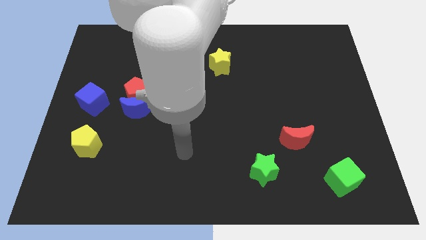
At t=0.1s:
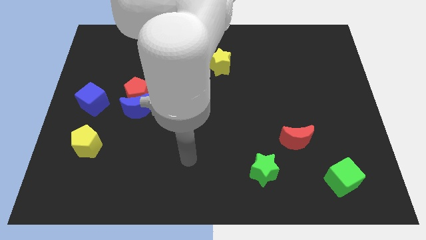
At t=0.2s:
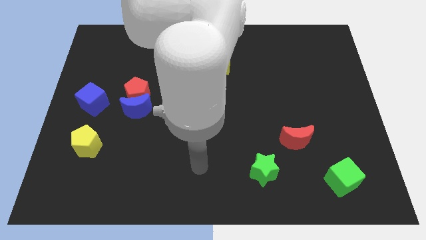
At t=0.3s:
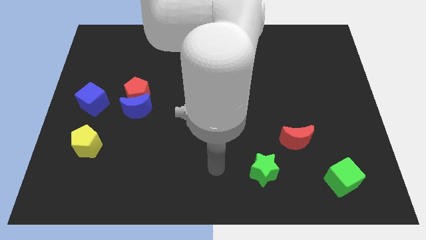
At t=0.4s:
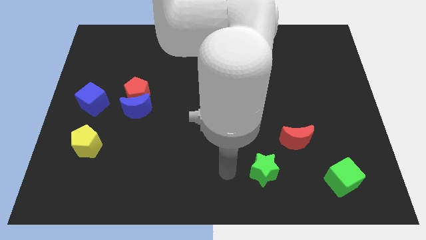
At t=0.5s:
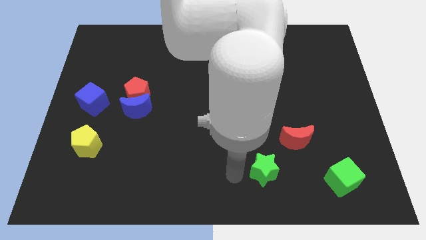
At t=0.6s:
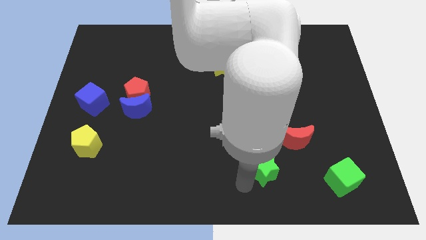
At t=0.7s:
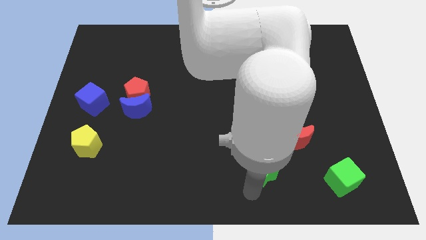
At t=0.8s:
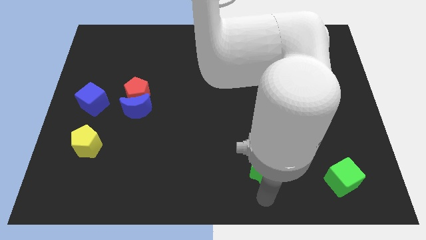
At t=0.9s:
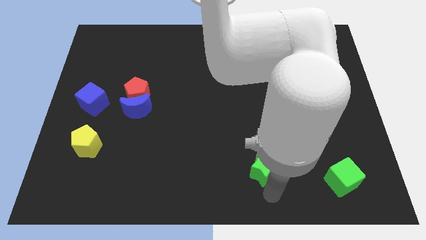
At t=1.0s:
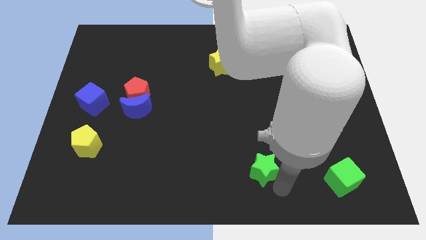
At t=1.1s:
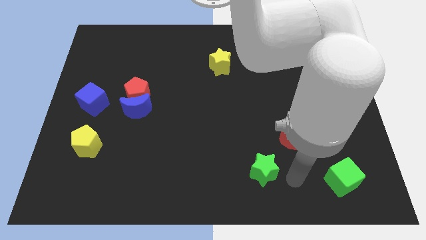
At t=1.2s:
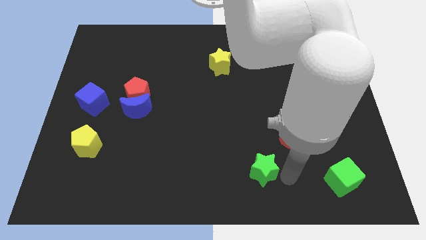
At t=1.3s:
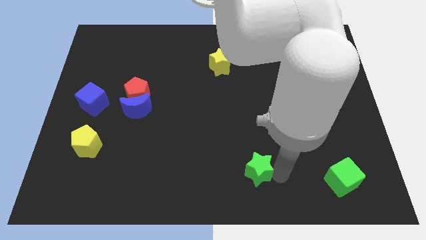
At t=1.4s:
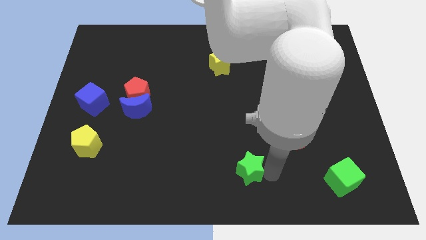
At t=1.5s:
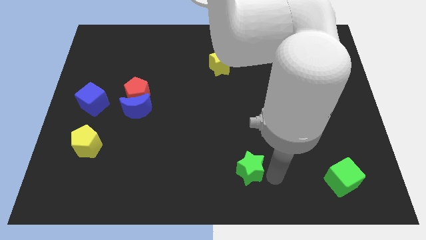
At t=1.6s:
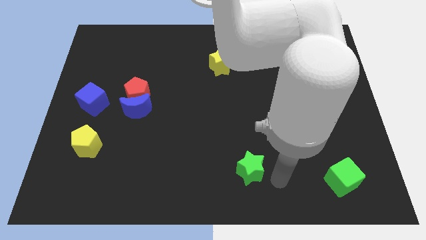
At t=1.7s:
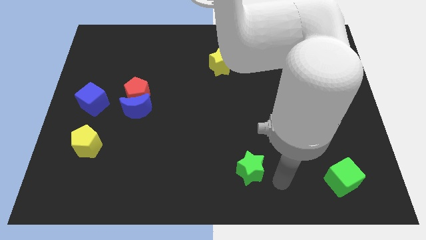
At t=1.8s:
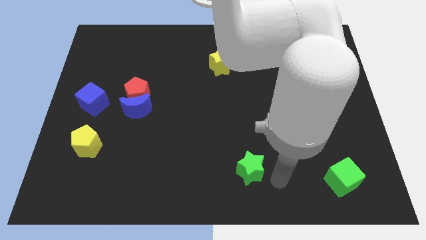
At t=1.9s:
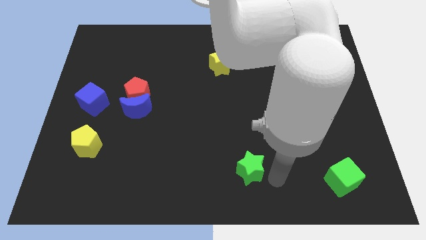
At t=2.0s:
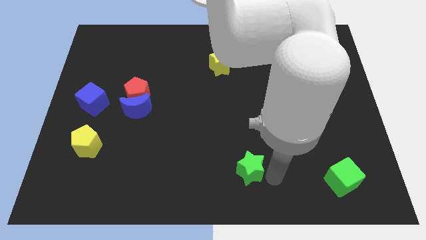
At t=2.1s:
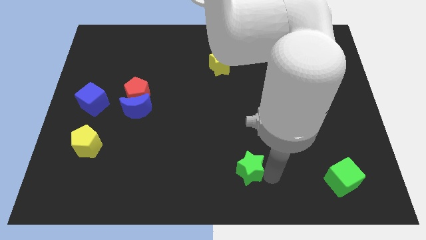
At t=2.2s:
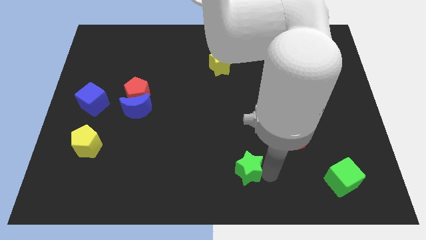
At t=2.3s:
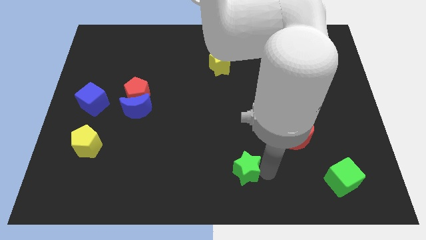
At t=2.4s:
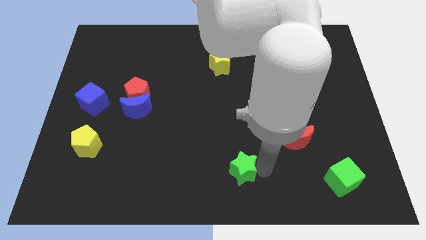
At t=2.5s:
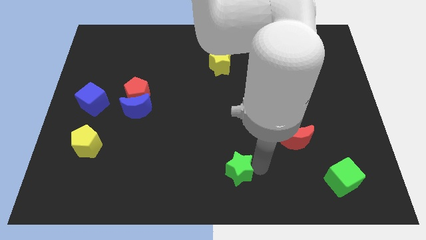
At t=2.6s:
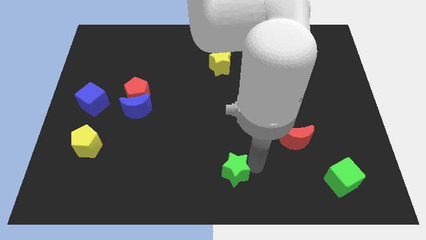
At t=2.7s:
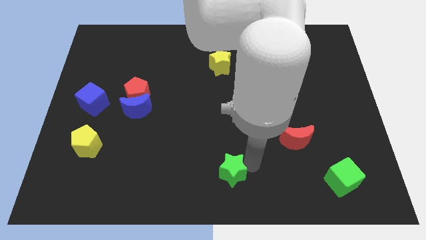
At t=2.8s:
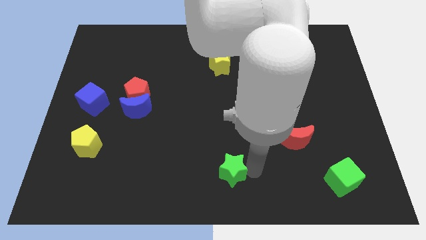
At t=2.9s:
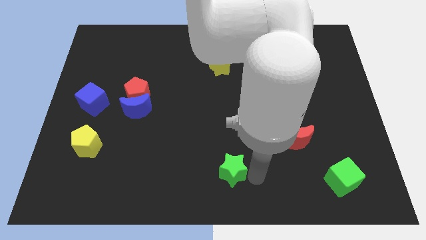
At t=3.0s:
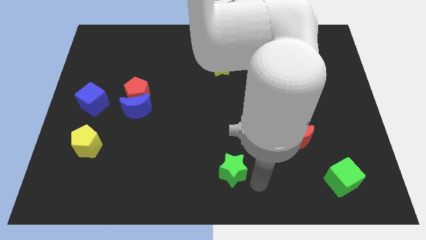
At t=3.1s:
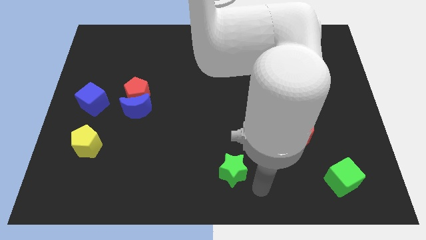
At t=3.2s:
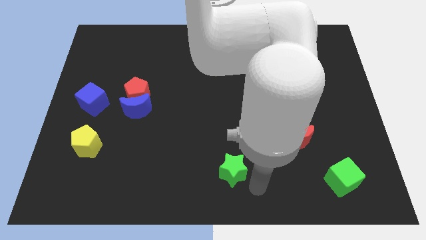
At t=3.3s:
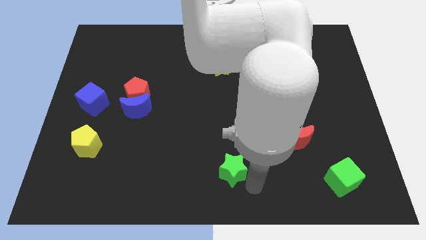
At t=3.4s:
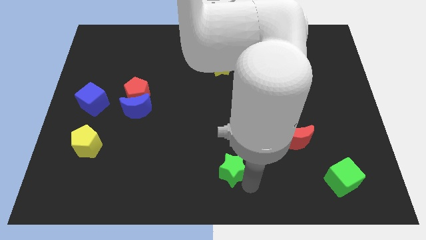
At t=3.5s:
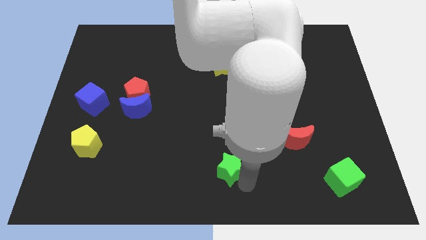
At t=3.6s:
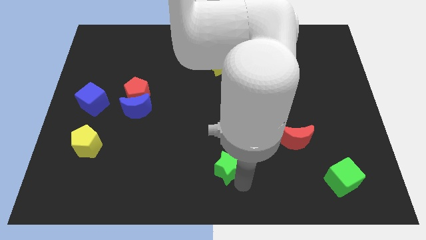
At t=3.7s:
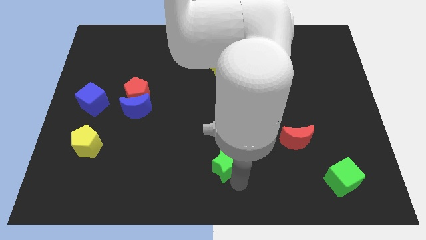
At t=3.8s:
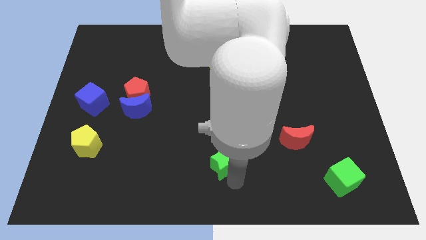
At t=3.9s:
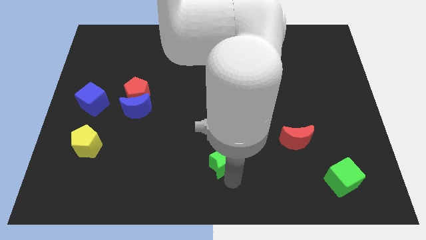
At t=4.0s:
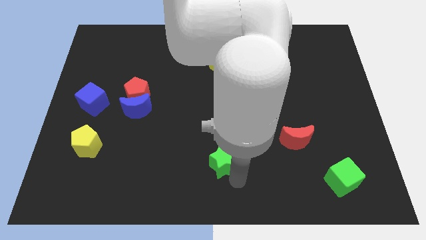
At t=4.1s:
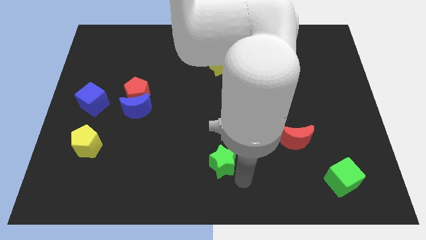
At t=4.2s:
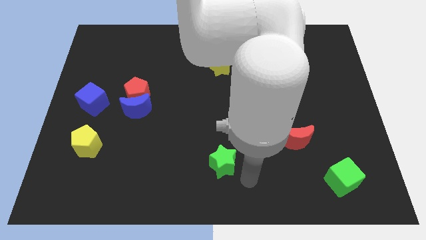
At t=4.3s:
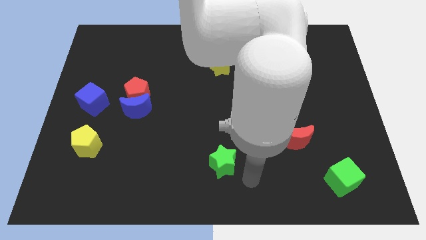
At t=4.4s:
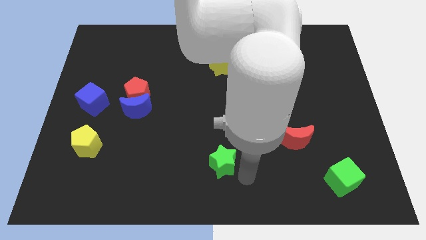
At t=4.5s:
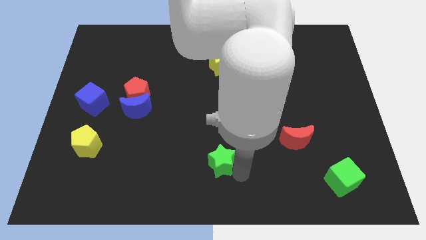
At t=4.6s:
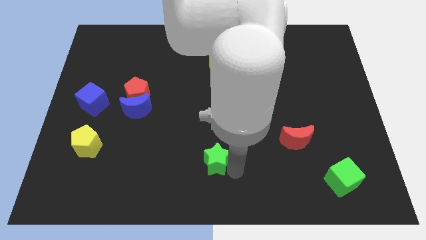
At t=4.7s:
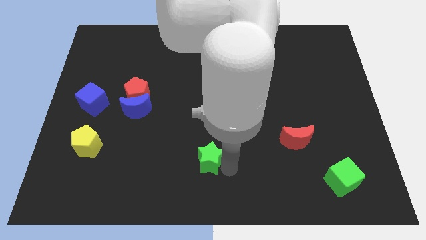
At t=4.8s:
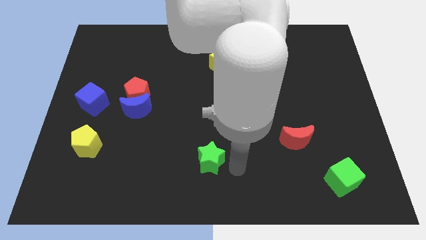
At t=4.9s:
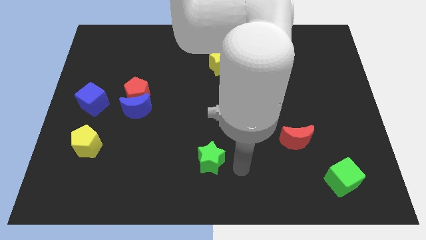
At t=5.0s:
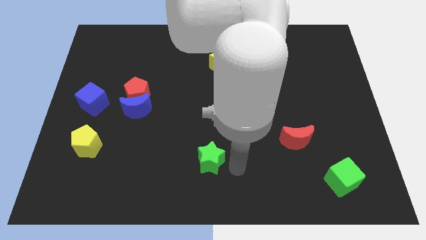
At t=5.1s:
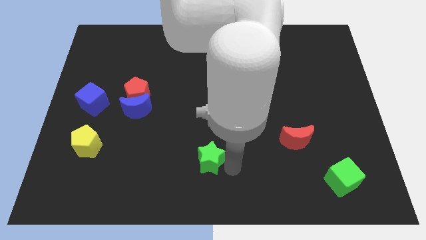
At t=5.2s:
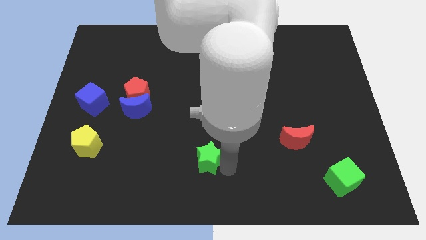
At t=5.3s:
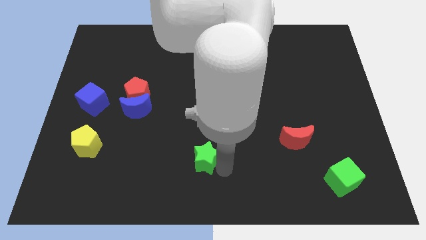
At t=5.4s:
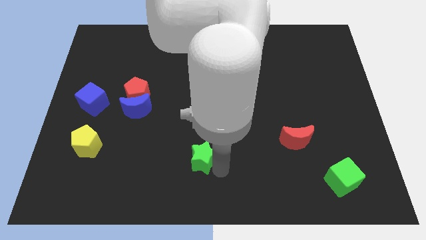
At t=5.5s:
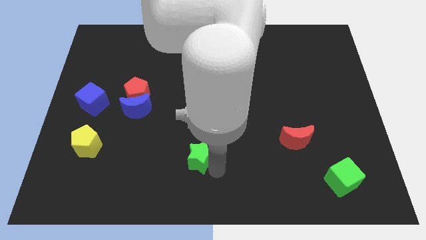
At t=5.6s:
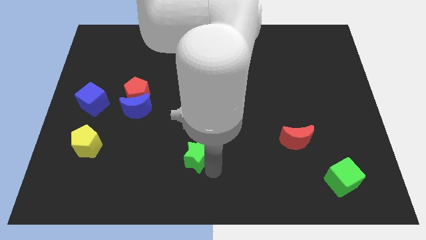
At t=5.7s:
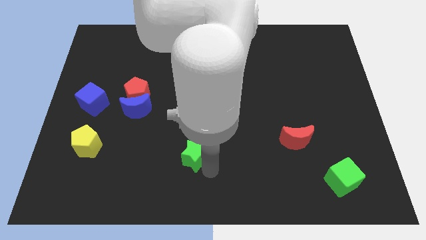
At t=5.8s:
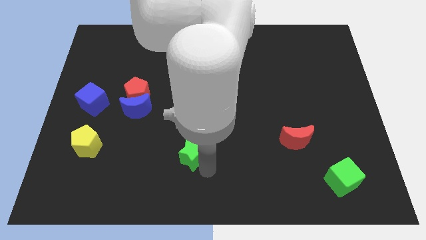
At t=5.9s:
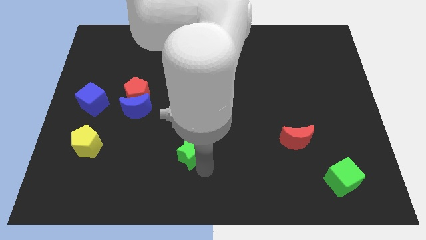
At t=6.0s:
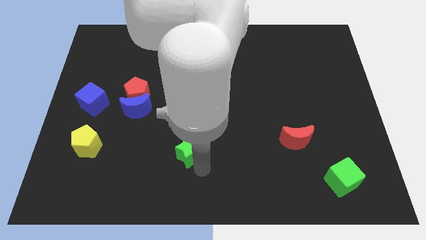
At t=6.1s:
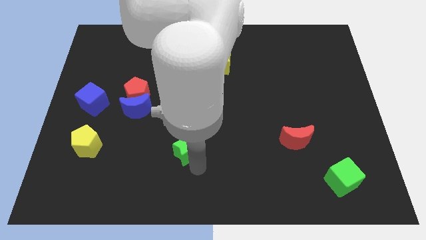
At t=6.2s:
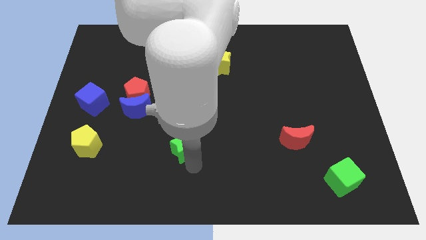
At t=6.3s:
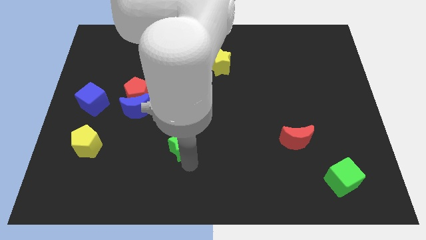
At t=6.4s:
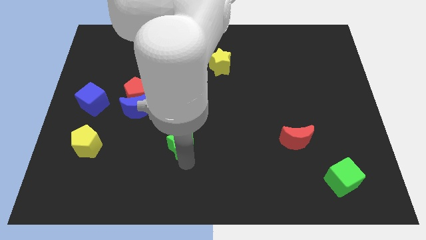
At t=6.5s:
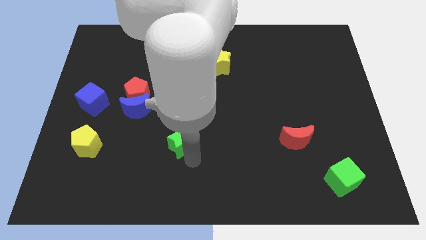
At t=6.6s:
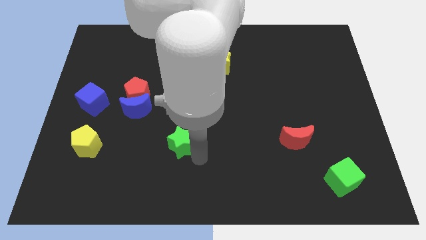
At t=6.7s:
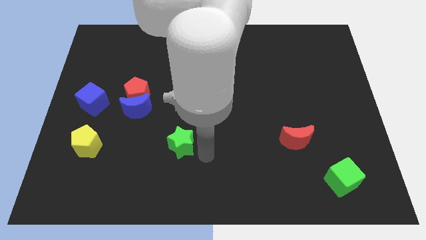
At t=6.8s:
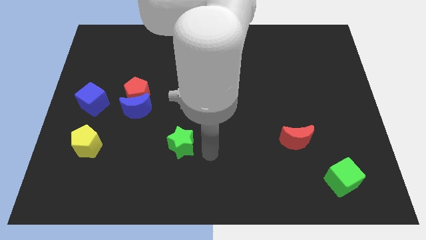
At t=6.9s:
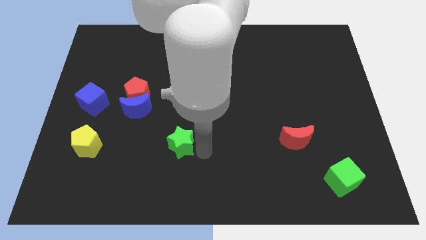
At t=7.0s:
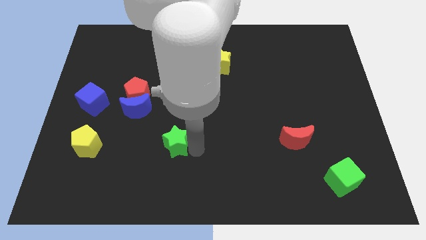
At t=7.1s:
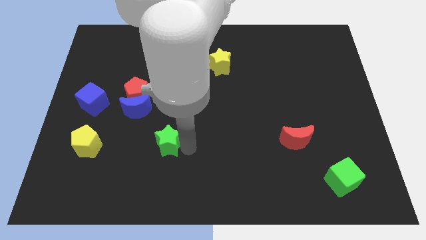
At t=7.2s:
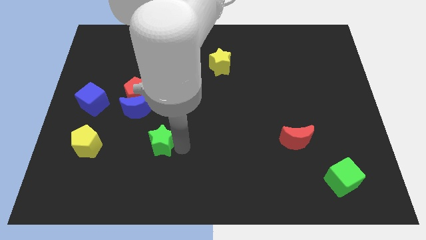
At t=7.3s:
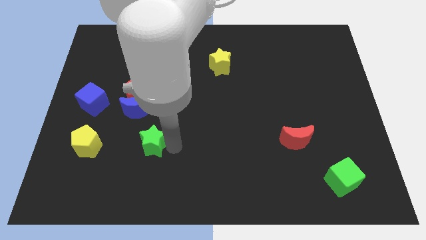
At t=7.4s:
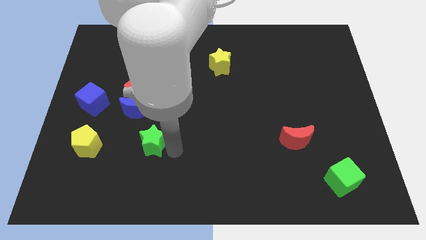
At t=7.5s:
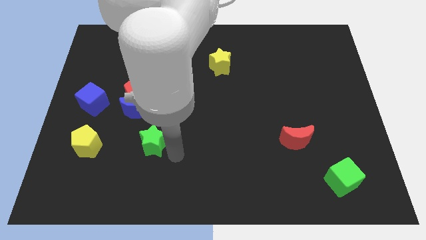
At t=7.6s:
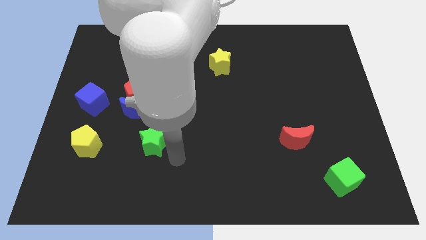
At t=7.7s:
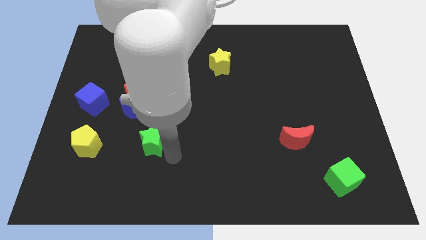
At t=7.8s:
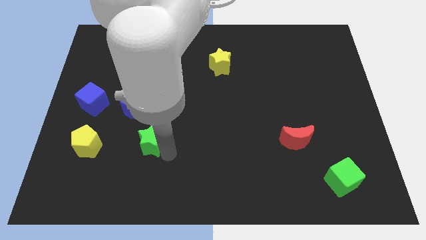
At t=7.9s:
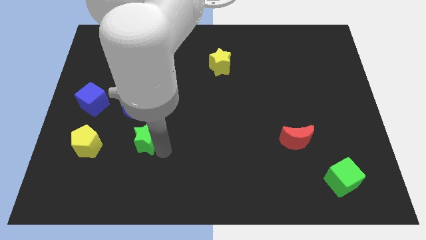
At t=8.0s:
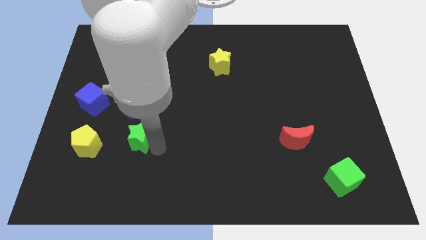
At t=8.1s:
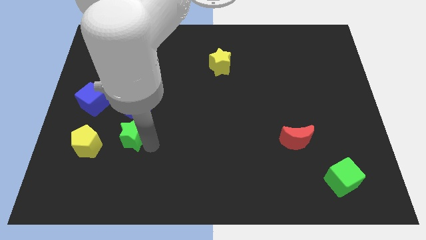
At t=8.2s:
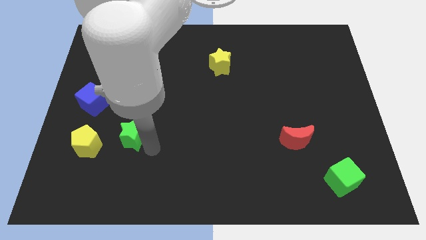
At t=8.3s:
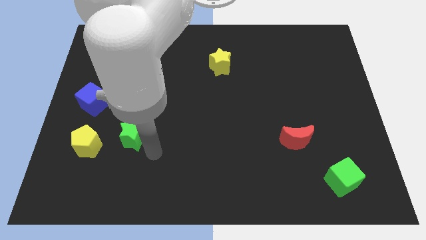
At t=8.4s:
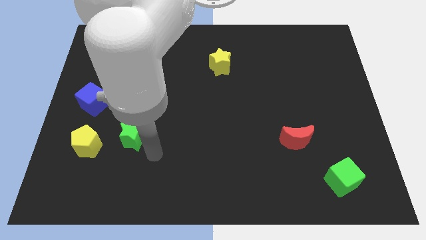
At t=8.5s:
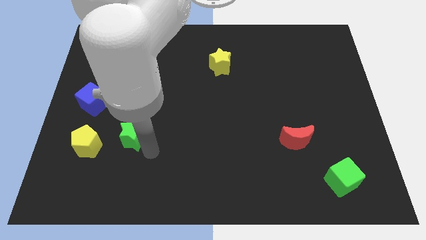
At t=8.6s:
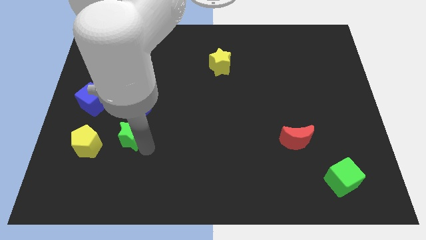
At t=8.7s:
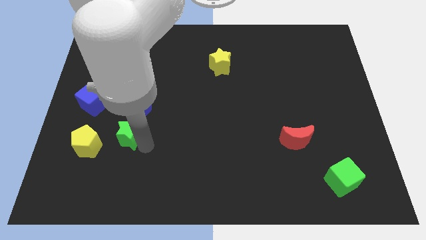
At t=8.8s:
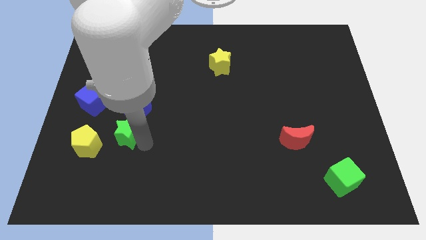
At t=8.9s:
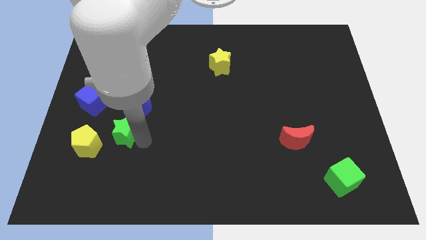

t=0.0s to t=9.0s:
slide the green star to the bottom right of the blue cube
